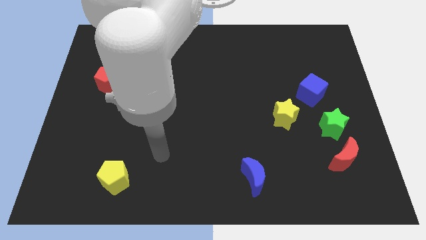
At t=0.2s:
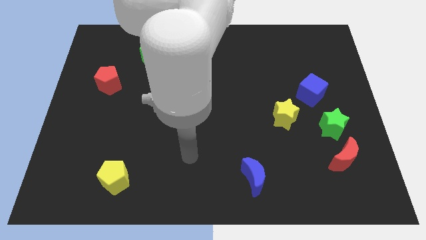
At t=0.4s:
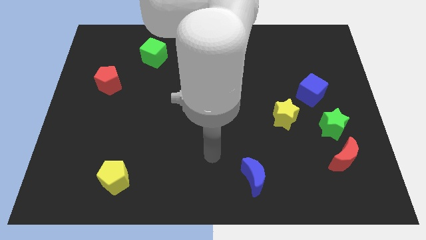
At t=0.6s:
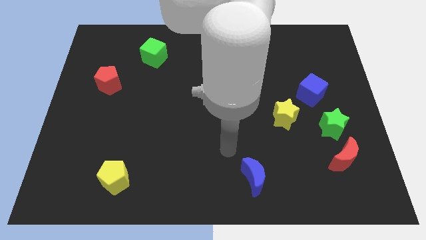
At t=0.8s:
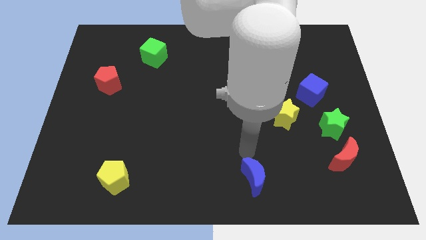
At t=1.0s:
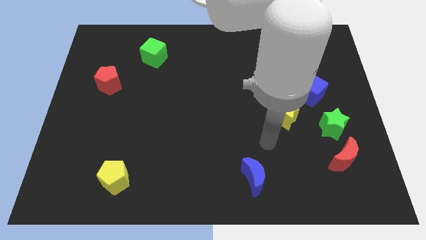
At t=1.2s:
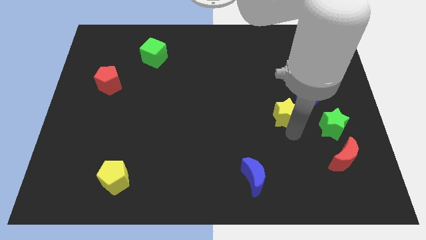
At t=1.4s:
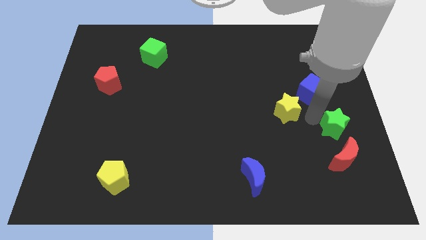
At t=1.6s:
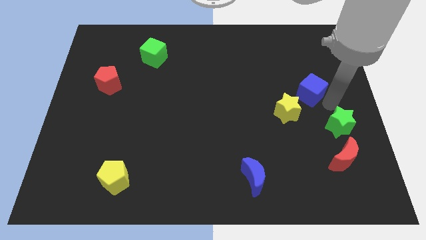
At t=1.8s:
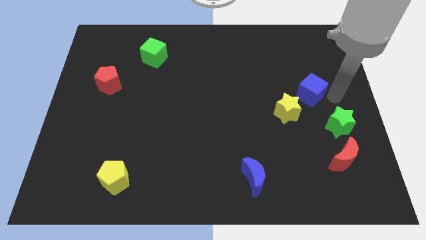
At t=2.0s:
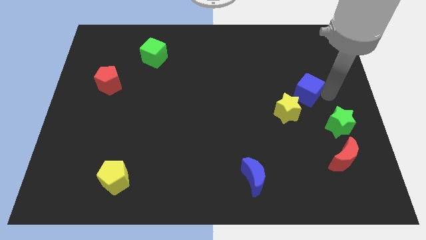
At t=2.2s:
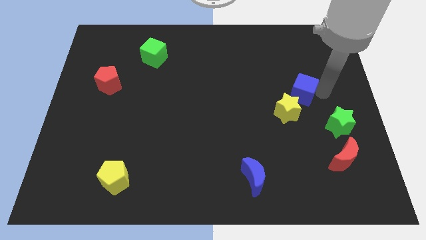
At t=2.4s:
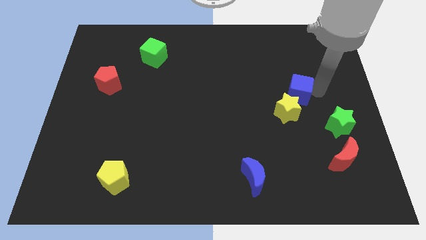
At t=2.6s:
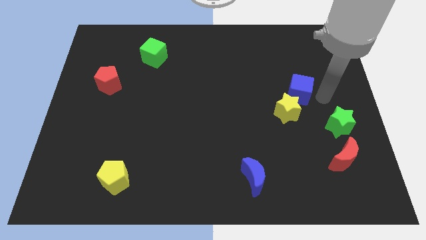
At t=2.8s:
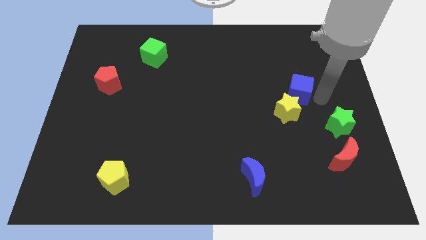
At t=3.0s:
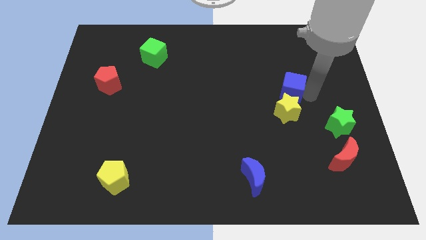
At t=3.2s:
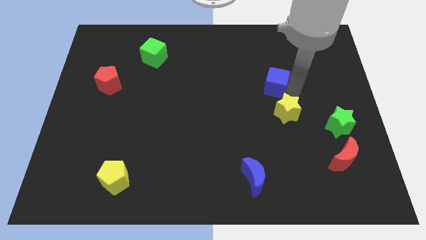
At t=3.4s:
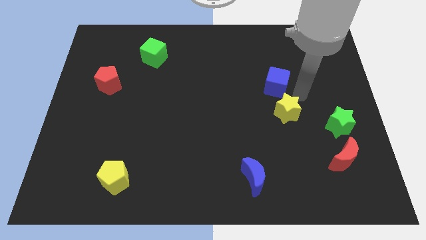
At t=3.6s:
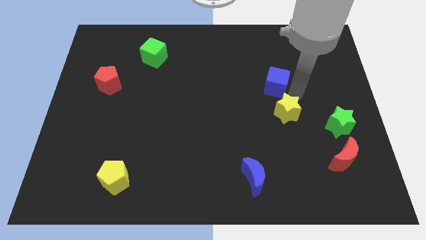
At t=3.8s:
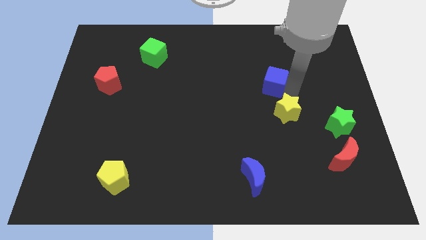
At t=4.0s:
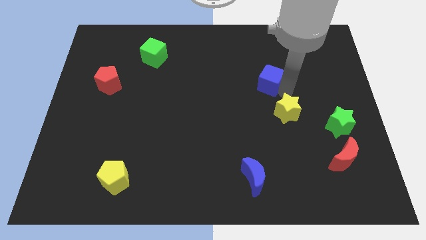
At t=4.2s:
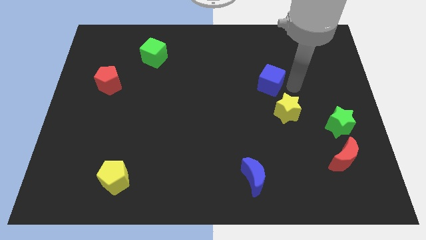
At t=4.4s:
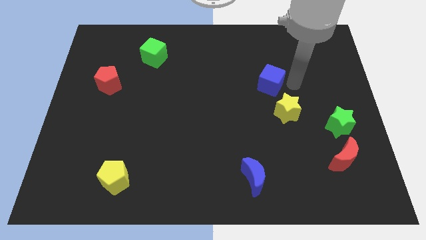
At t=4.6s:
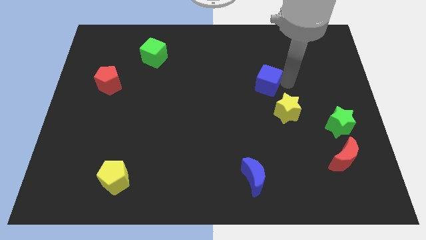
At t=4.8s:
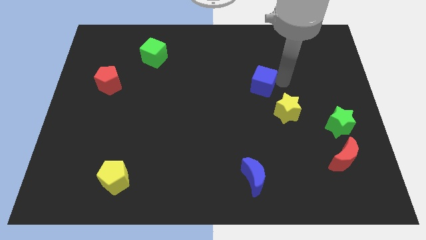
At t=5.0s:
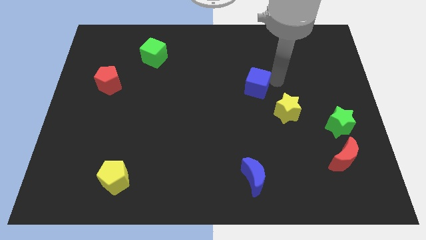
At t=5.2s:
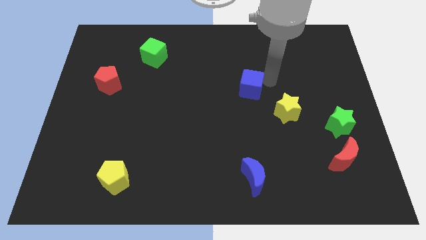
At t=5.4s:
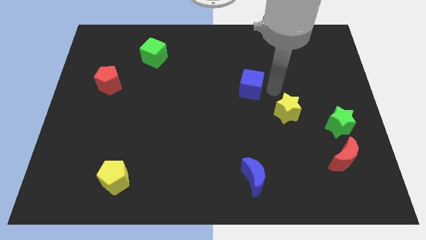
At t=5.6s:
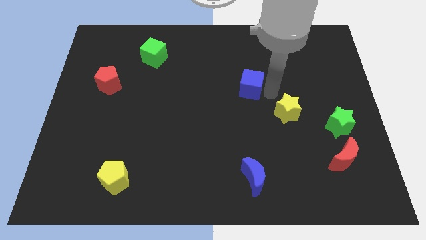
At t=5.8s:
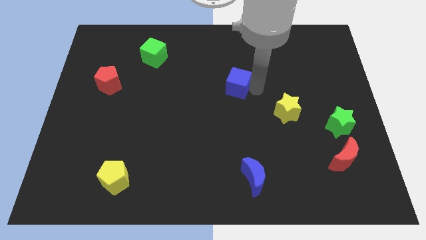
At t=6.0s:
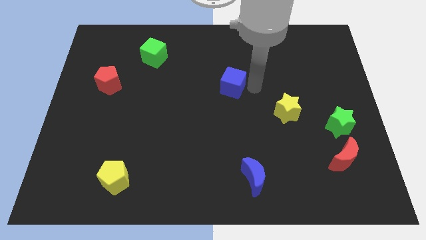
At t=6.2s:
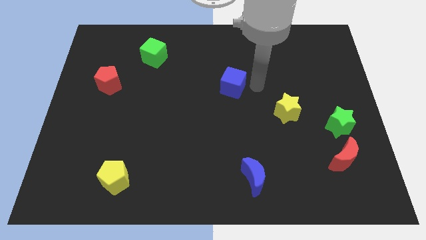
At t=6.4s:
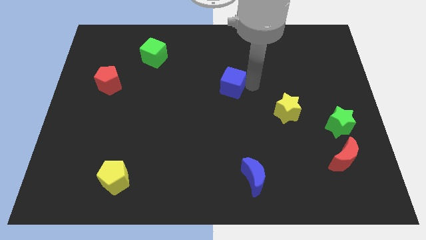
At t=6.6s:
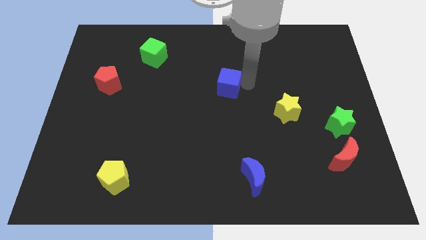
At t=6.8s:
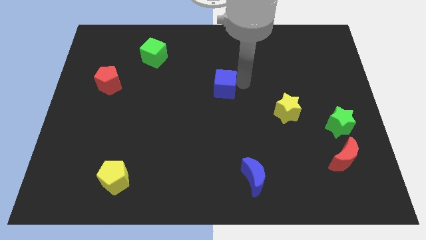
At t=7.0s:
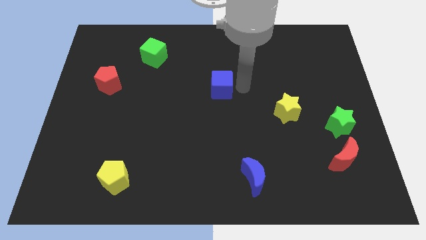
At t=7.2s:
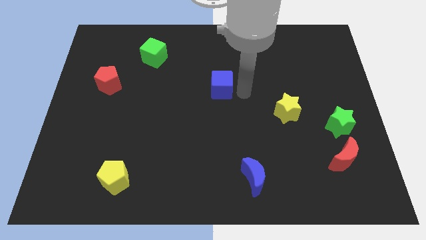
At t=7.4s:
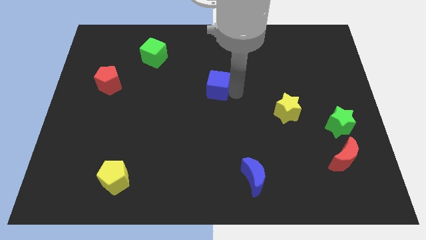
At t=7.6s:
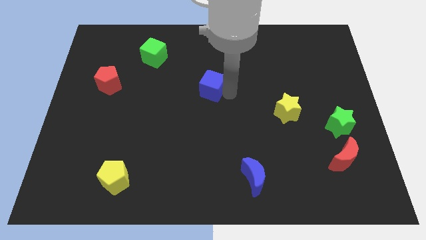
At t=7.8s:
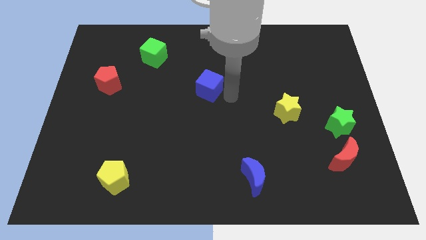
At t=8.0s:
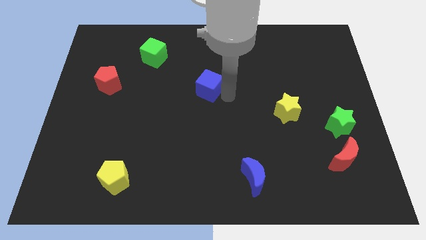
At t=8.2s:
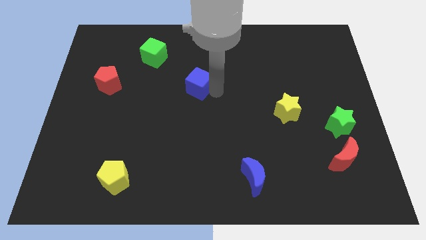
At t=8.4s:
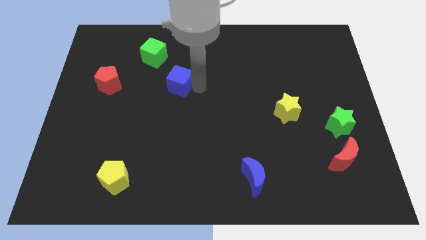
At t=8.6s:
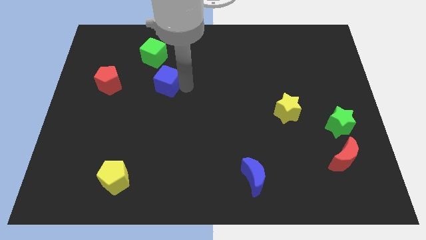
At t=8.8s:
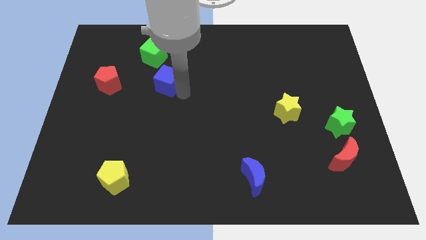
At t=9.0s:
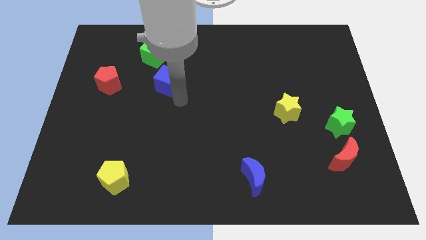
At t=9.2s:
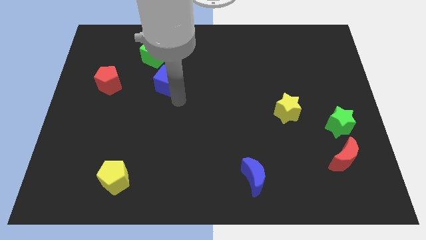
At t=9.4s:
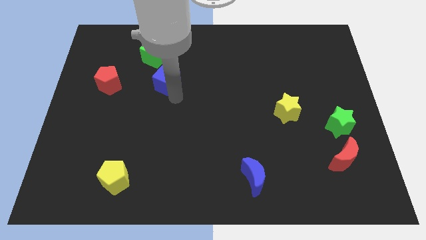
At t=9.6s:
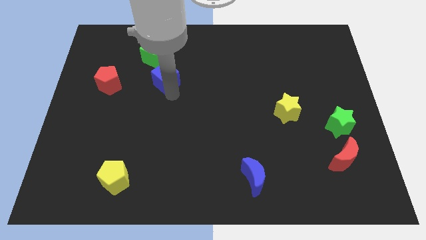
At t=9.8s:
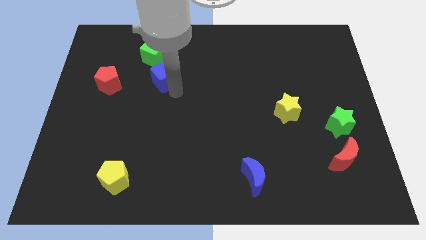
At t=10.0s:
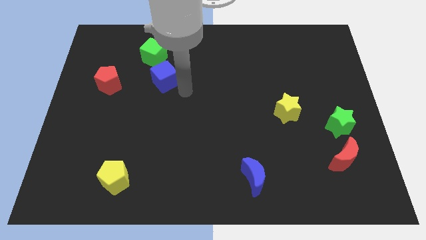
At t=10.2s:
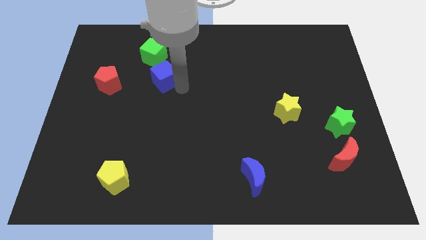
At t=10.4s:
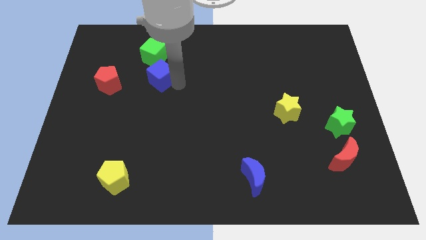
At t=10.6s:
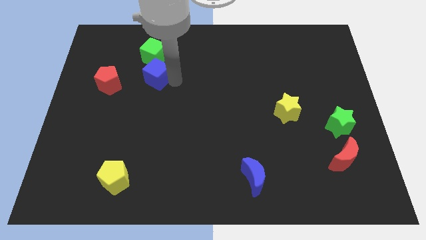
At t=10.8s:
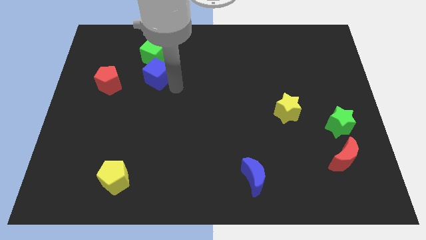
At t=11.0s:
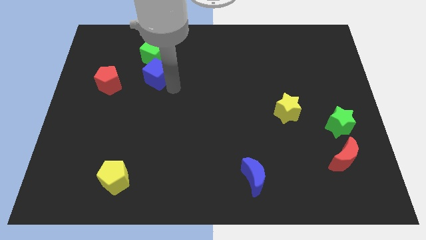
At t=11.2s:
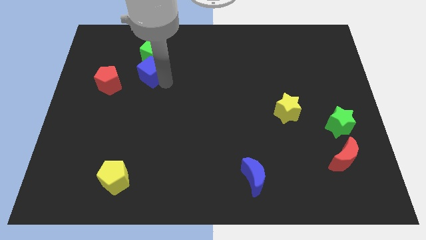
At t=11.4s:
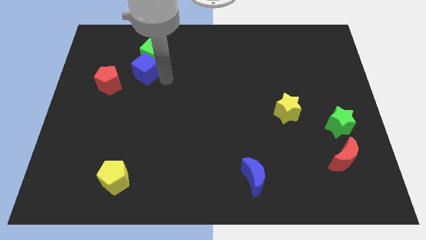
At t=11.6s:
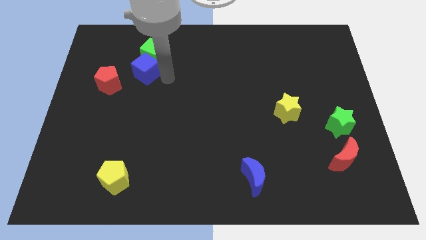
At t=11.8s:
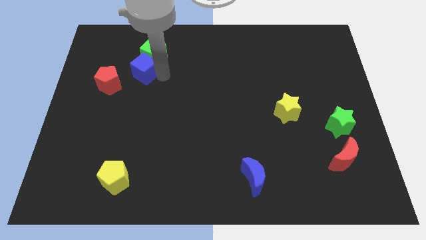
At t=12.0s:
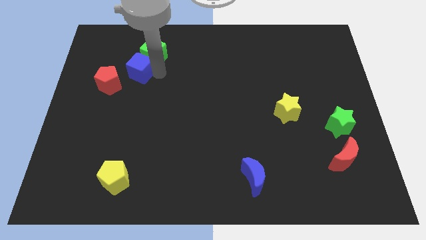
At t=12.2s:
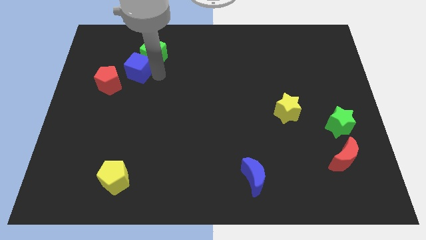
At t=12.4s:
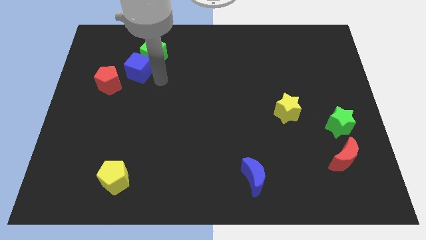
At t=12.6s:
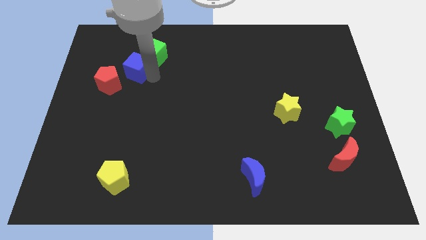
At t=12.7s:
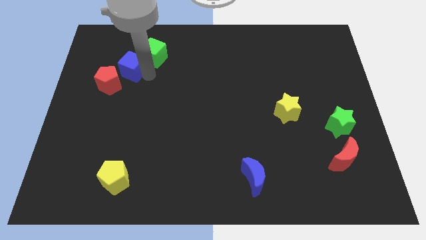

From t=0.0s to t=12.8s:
push the blue cube just left of the green cube

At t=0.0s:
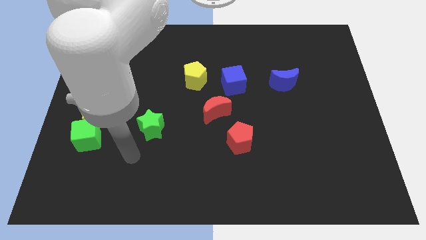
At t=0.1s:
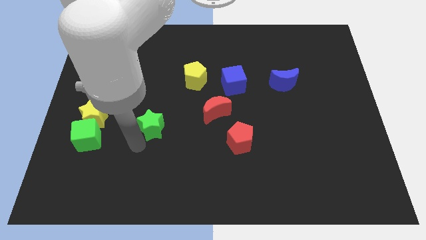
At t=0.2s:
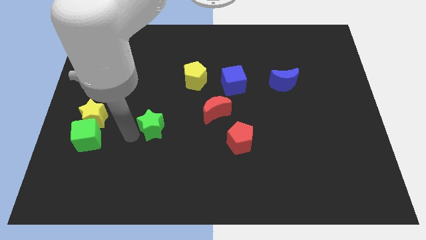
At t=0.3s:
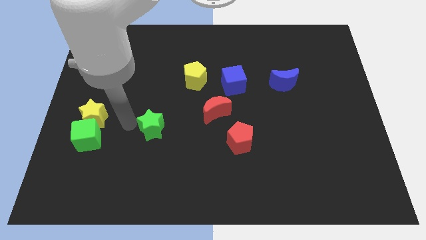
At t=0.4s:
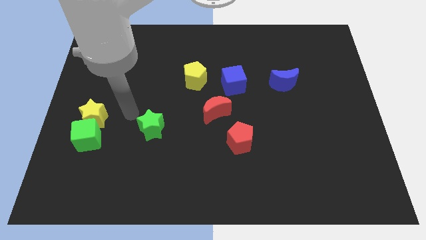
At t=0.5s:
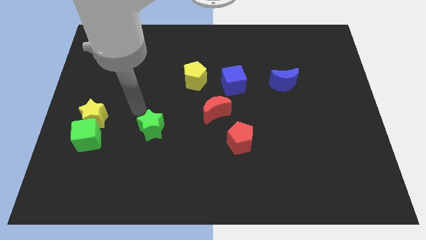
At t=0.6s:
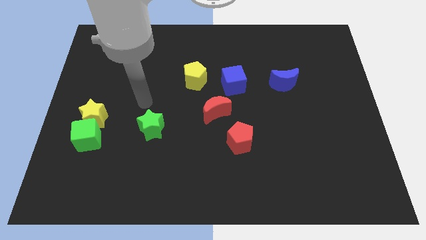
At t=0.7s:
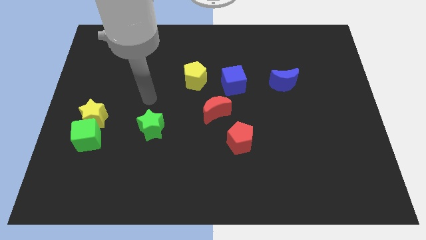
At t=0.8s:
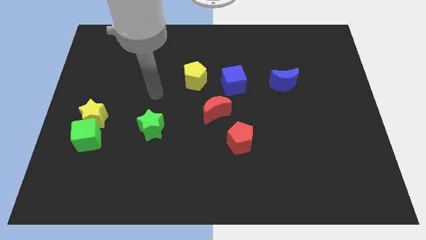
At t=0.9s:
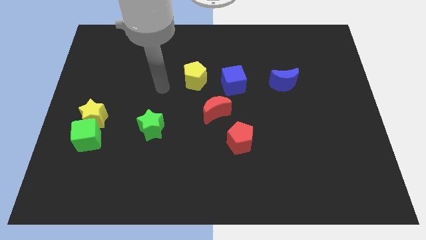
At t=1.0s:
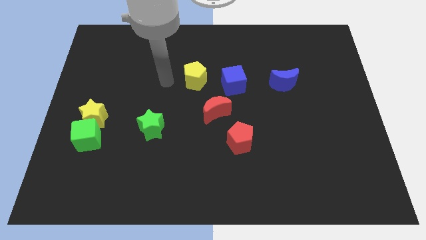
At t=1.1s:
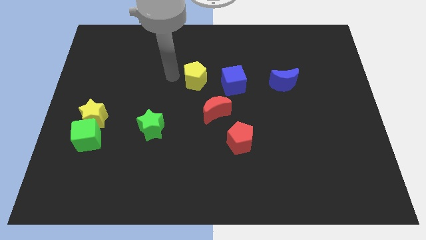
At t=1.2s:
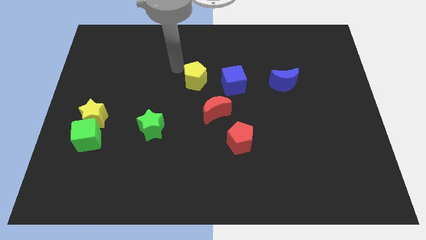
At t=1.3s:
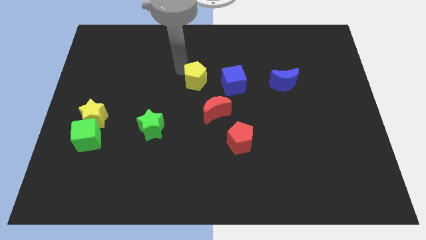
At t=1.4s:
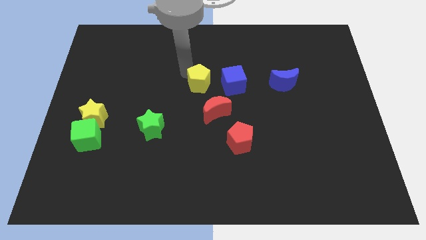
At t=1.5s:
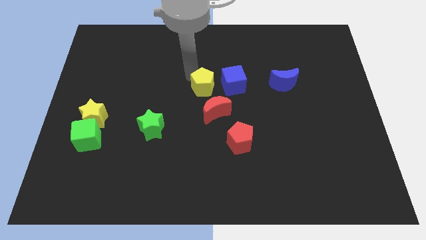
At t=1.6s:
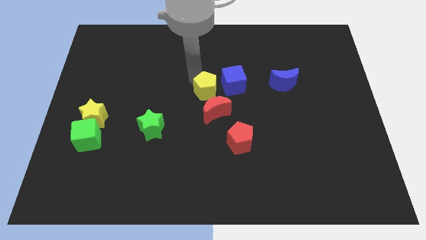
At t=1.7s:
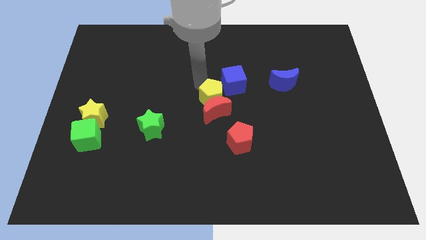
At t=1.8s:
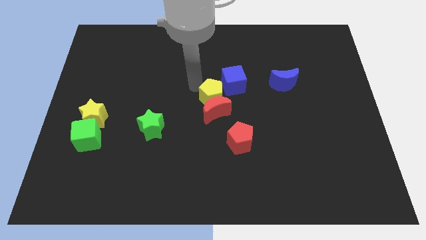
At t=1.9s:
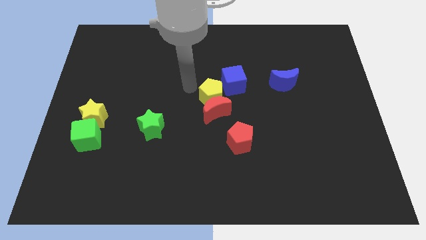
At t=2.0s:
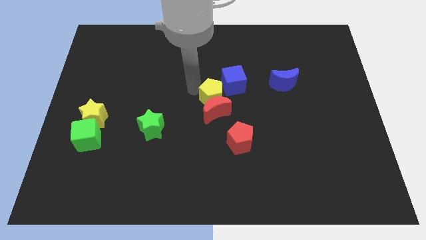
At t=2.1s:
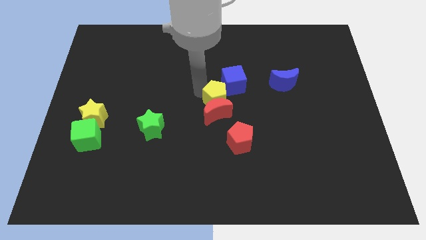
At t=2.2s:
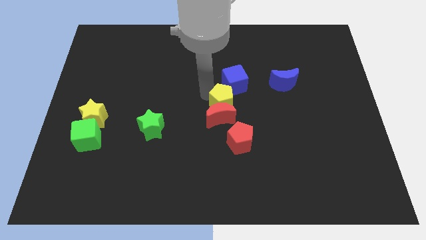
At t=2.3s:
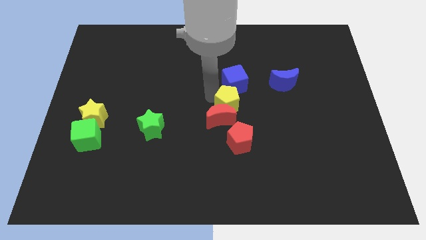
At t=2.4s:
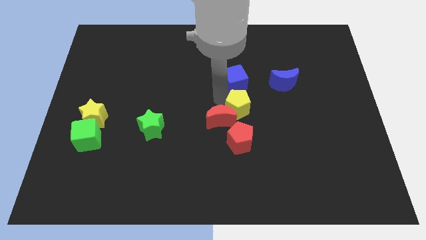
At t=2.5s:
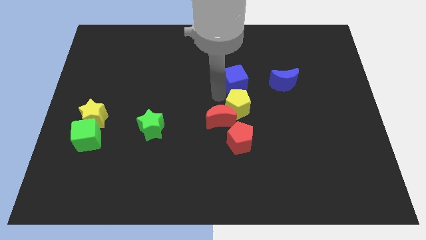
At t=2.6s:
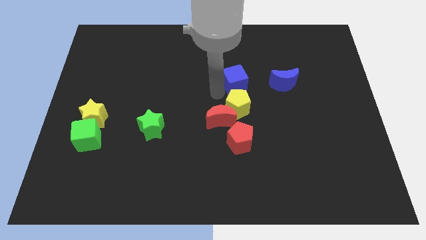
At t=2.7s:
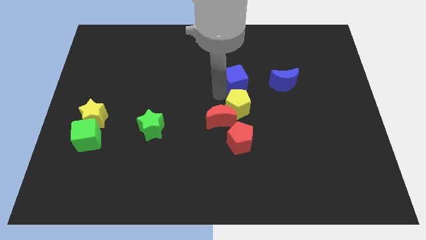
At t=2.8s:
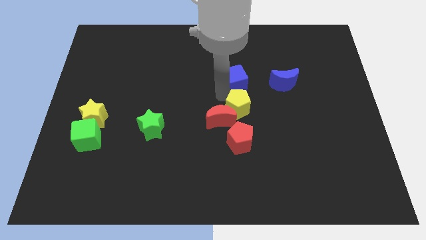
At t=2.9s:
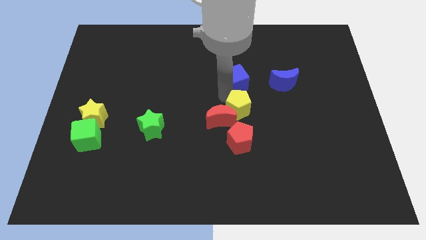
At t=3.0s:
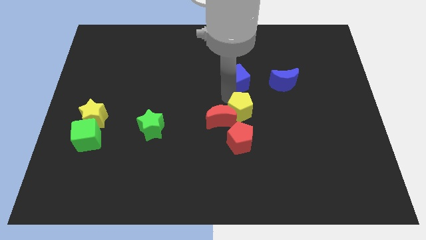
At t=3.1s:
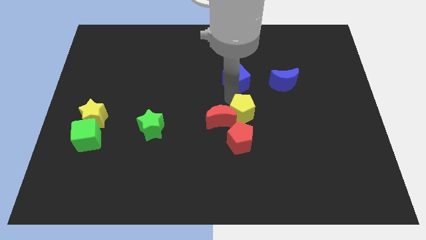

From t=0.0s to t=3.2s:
slide the yellow pentagon diagonally up and to the right of the red pentagon
